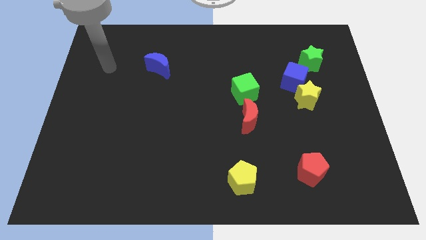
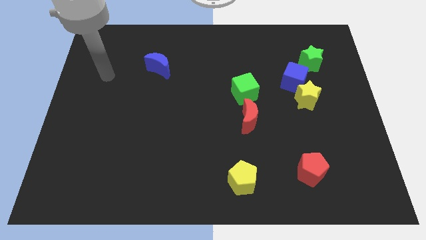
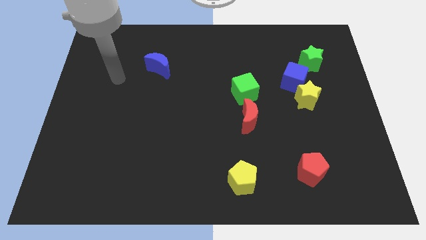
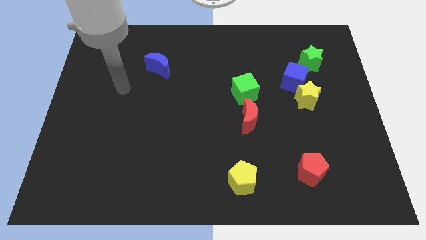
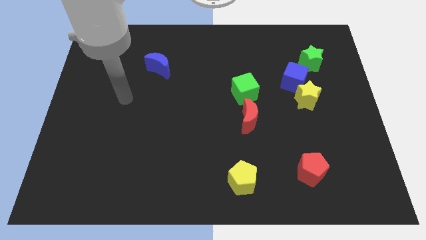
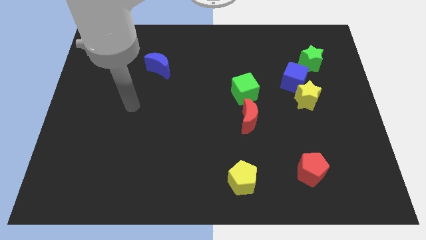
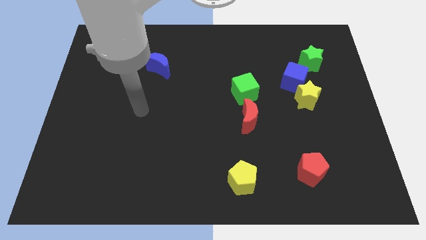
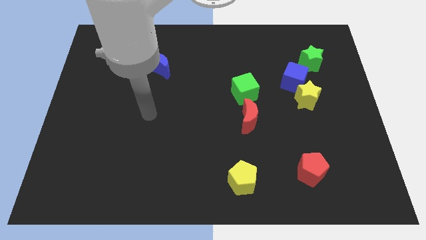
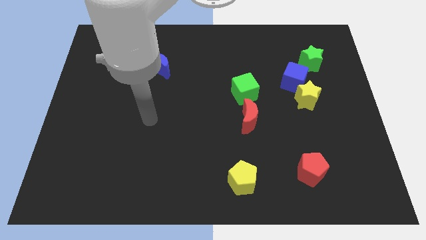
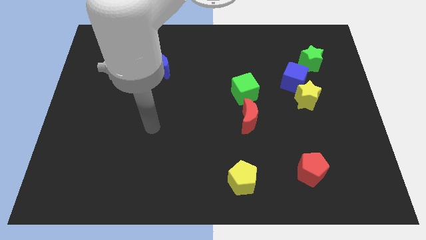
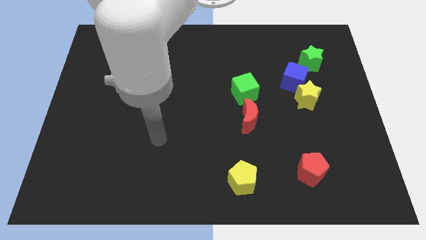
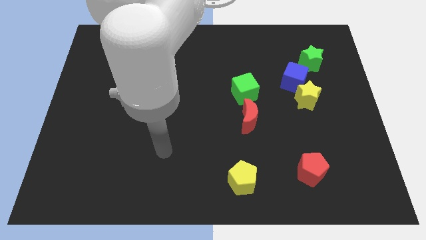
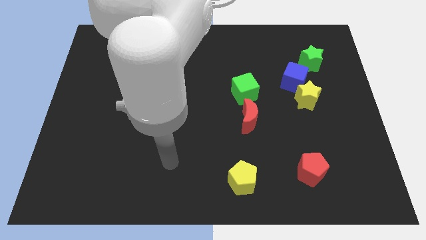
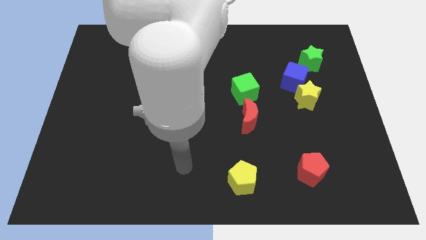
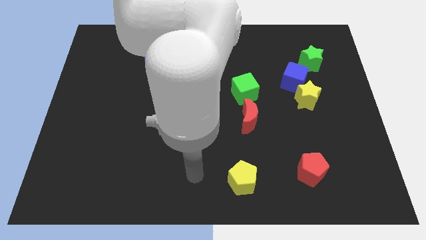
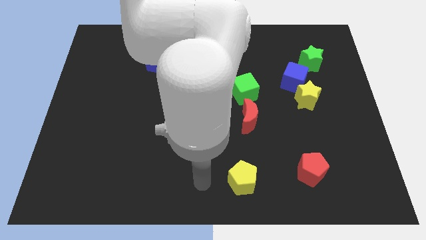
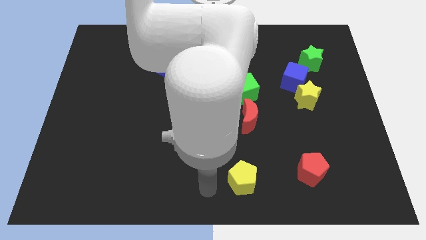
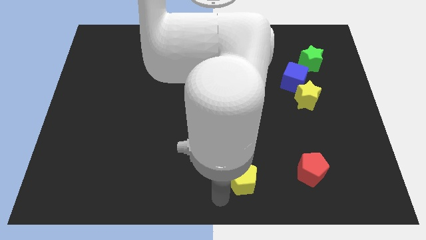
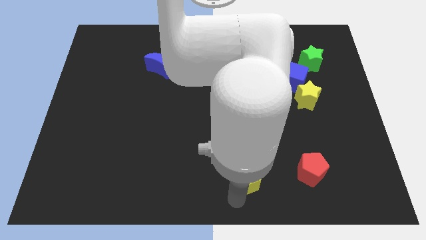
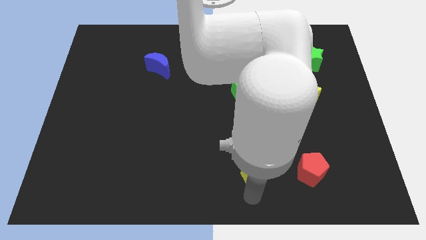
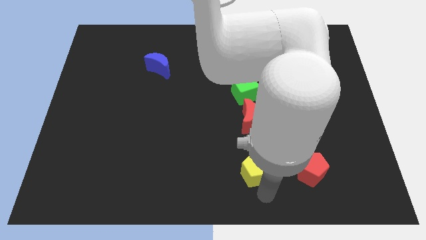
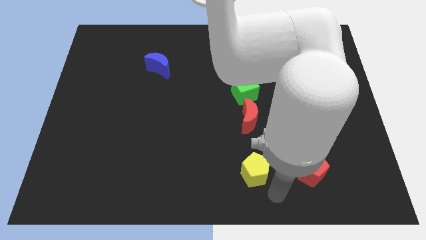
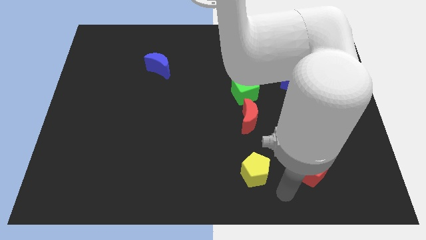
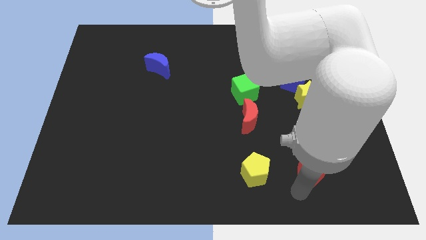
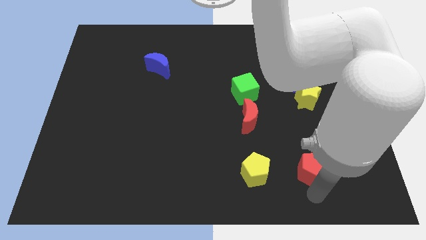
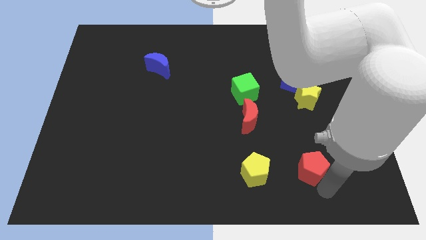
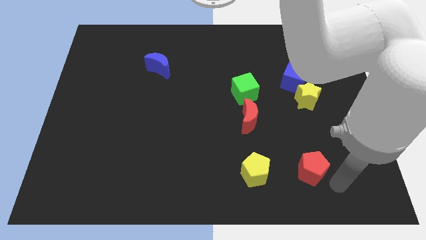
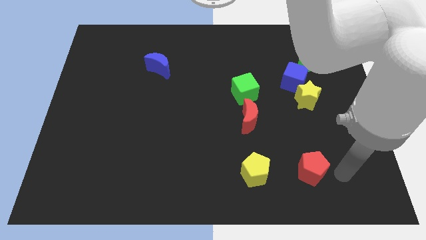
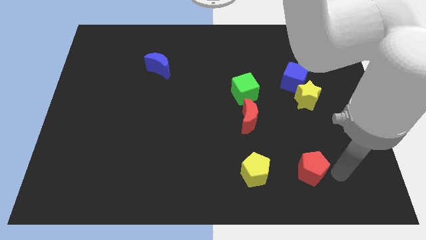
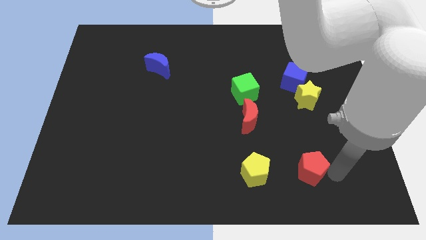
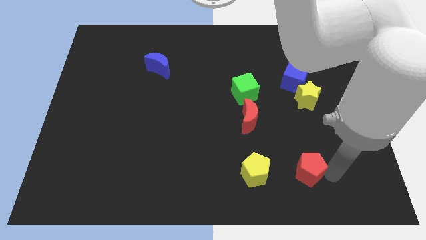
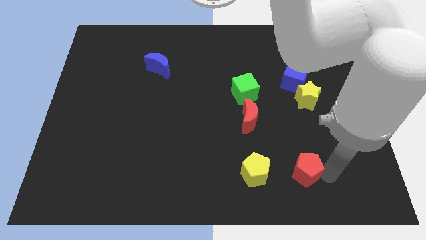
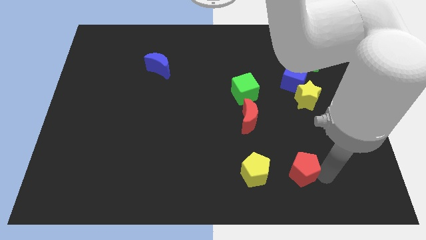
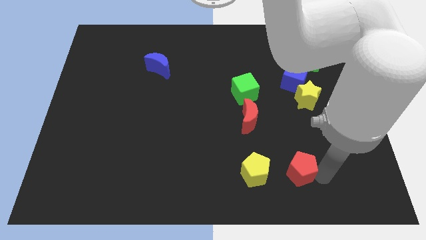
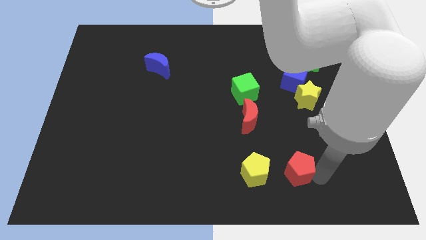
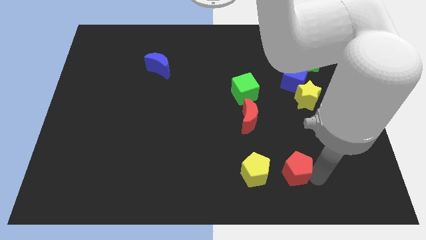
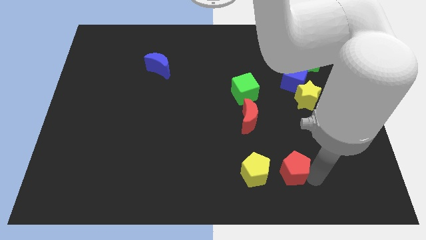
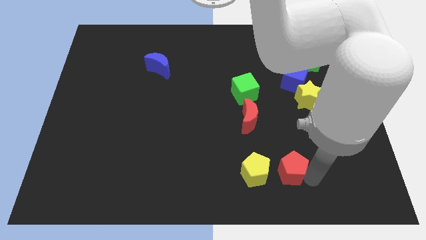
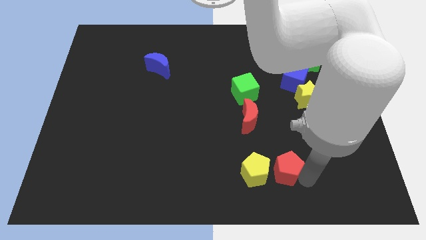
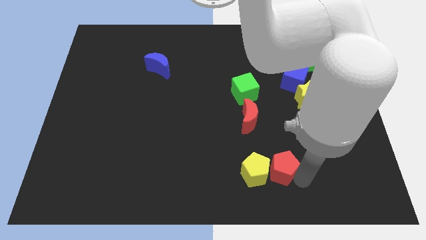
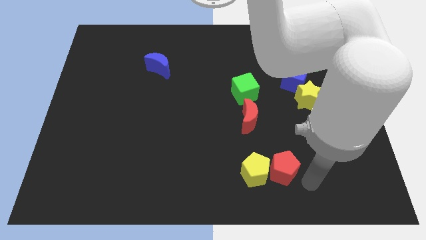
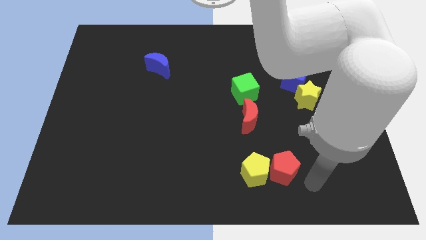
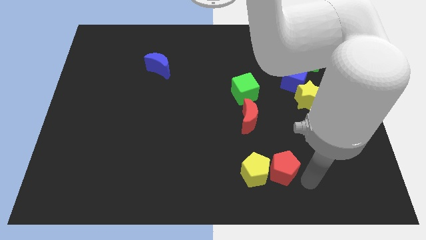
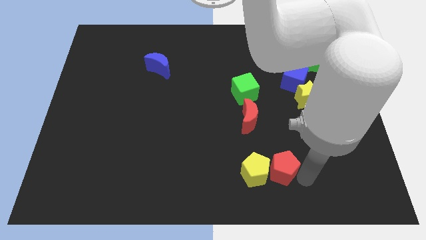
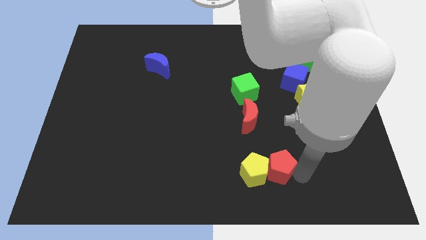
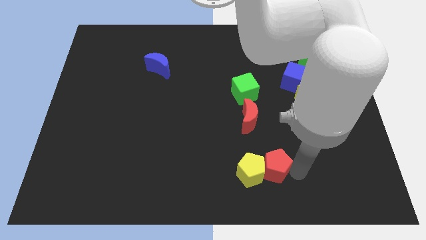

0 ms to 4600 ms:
slide the red pentagon to the left somewhat

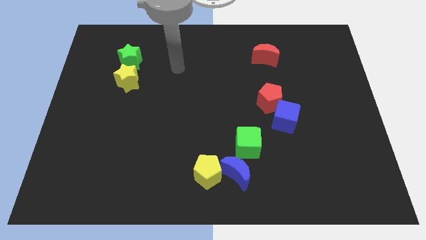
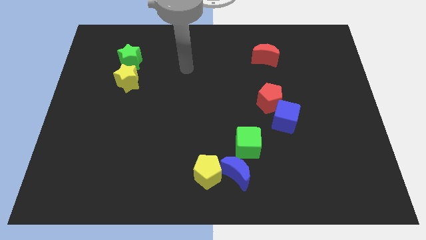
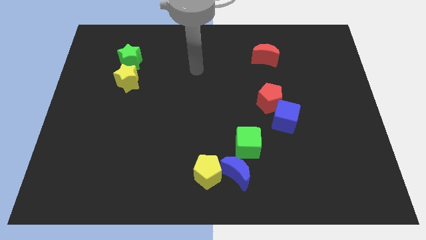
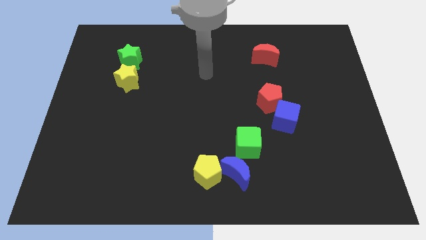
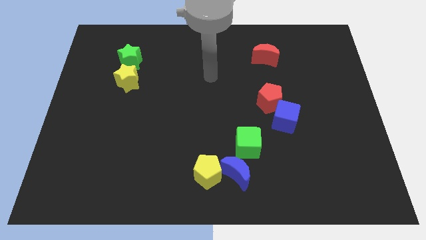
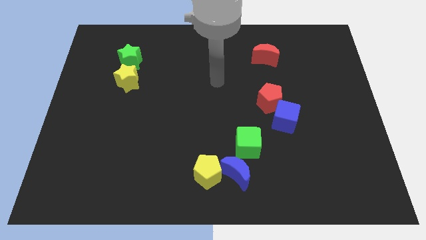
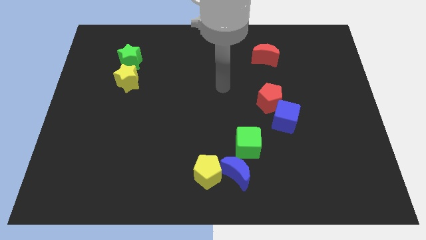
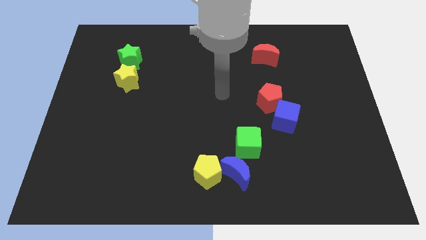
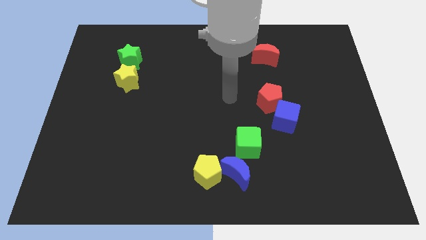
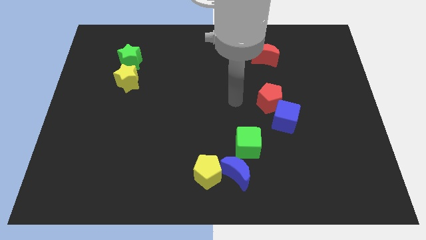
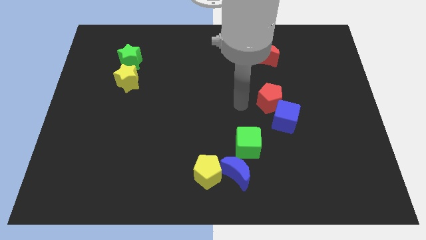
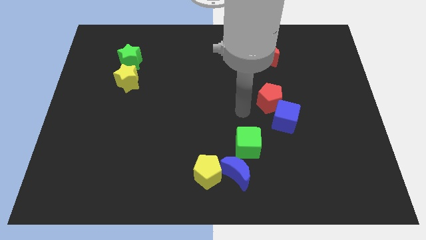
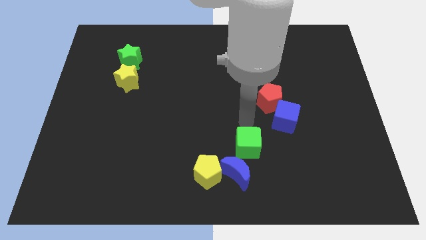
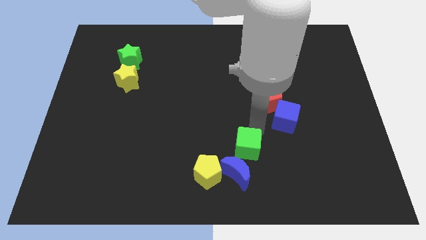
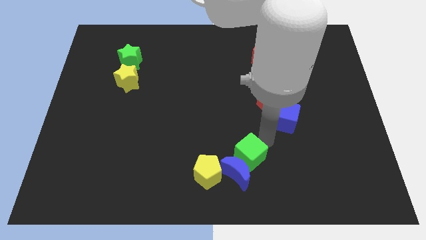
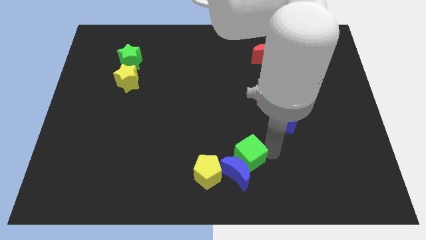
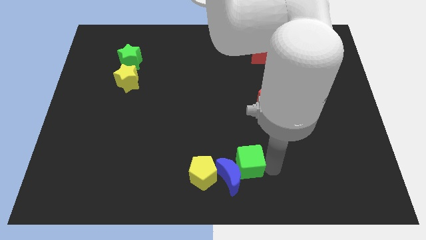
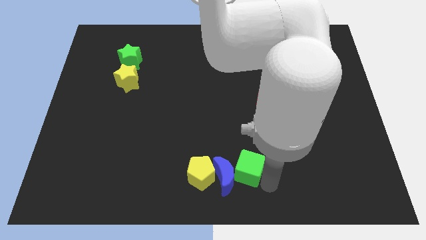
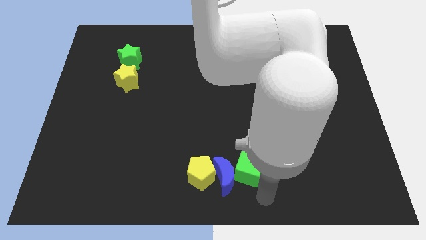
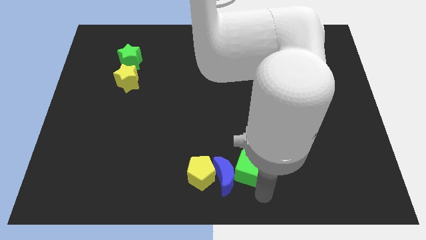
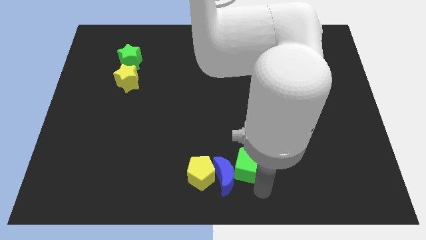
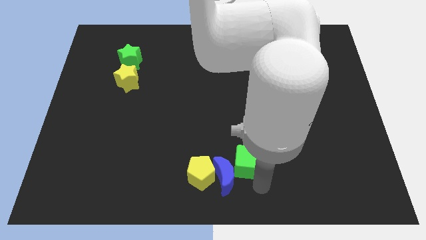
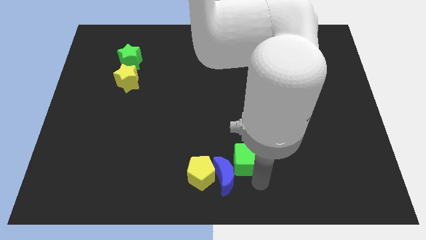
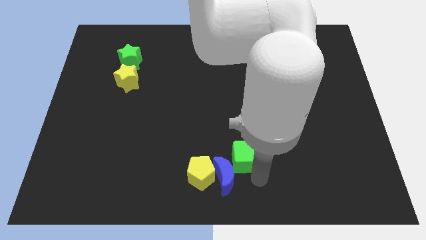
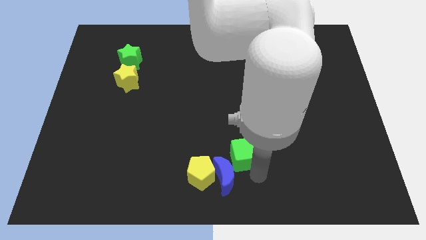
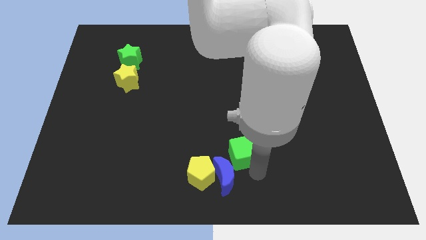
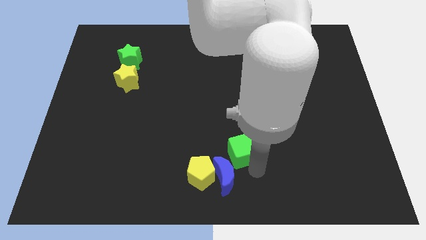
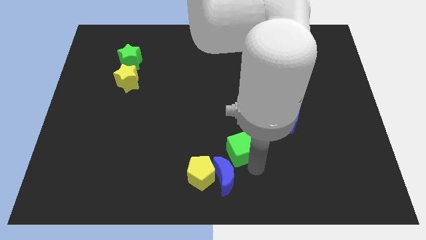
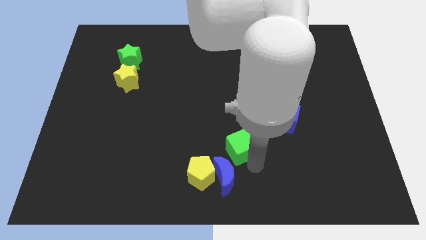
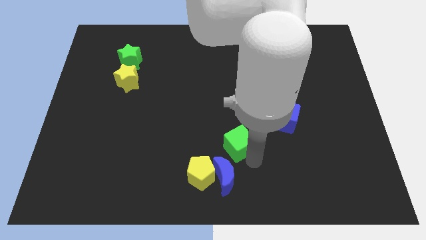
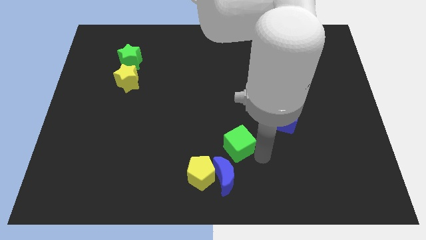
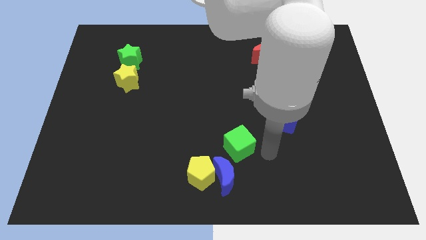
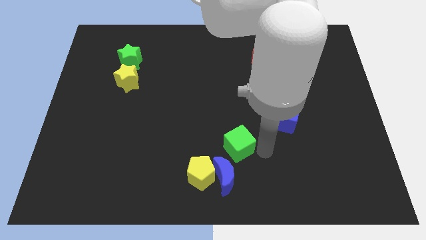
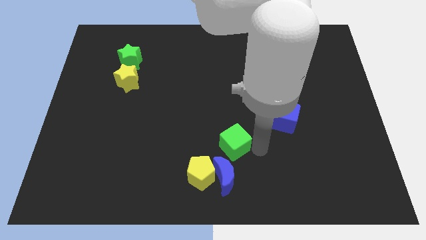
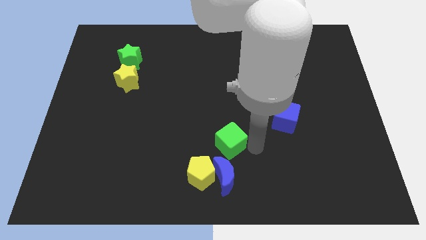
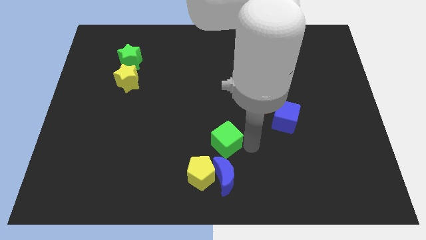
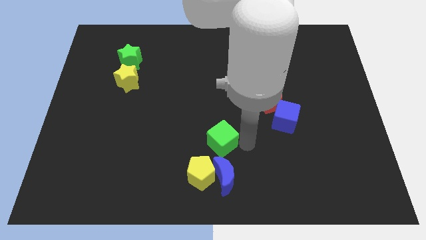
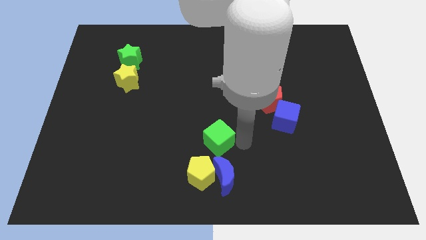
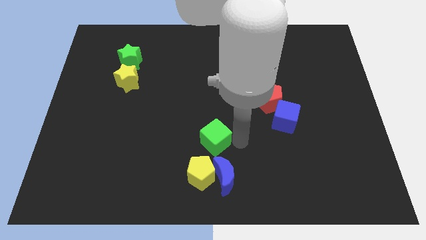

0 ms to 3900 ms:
slightly slide the green cube to the left

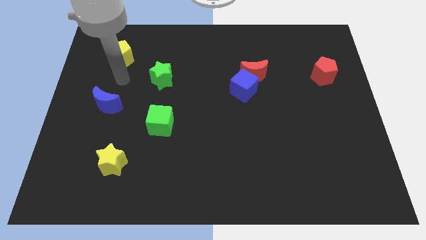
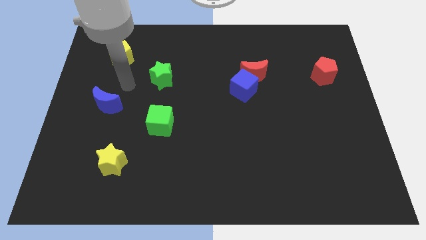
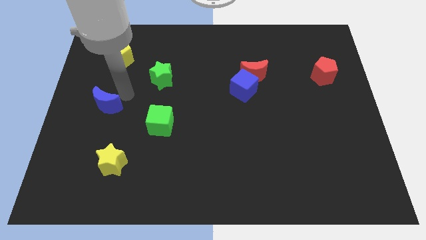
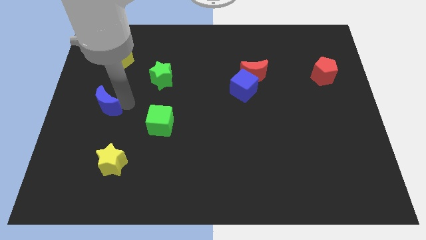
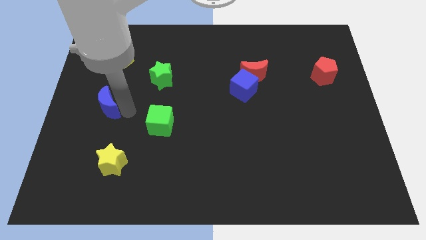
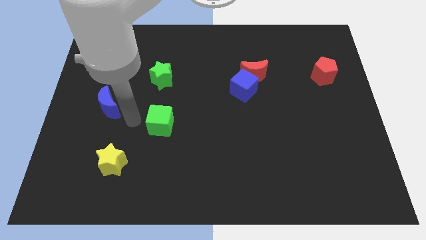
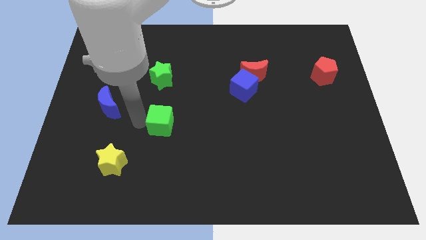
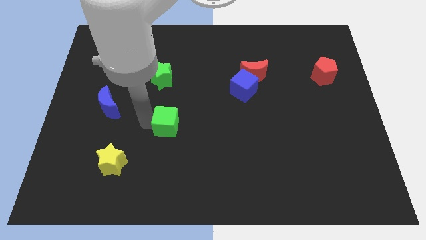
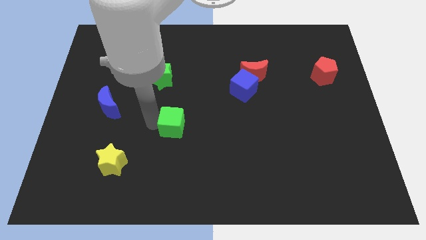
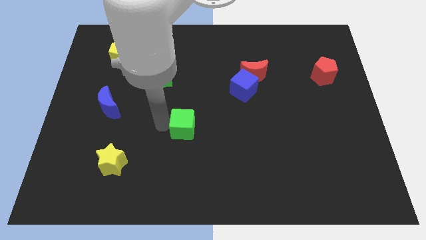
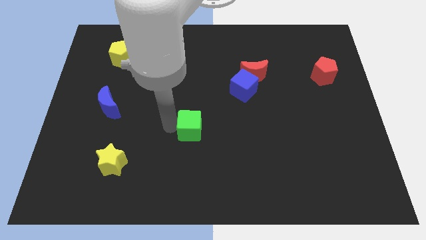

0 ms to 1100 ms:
move the green cube a bit right
